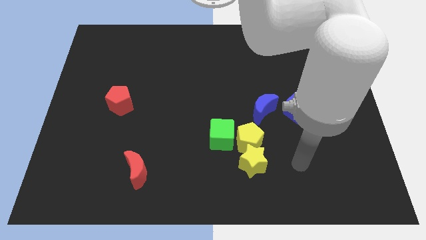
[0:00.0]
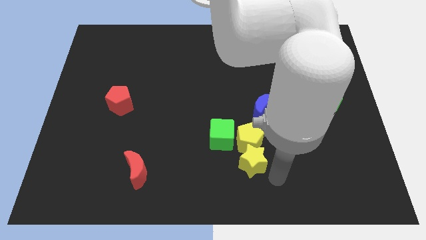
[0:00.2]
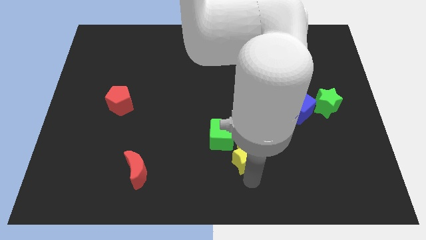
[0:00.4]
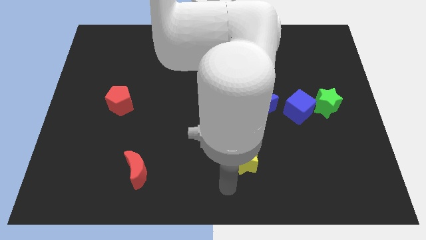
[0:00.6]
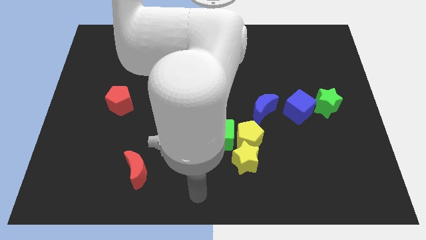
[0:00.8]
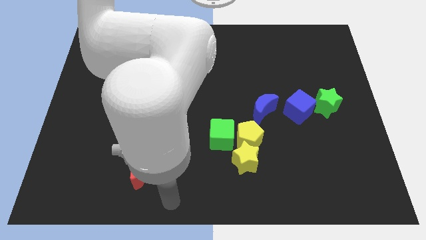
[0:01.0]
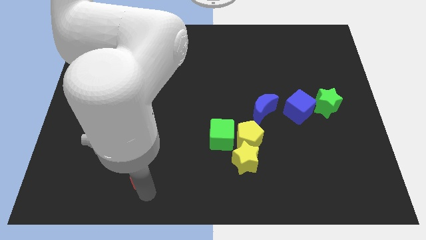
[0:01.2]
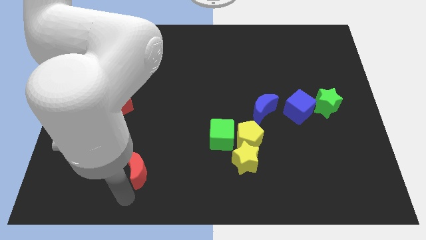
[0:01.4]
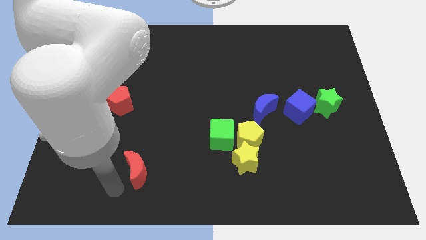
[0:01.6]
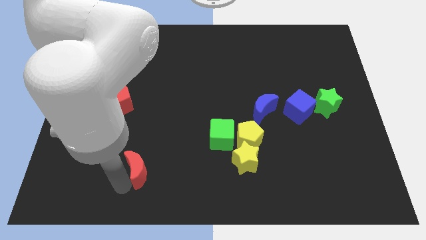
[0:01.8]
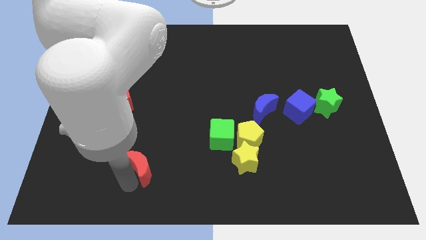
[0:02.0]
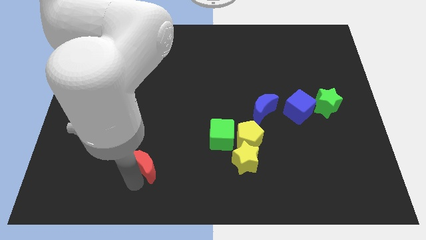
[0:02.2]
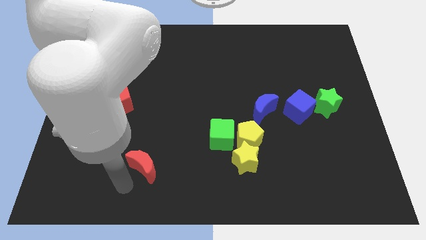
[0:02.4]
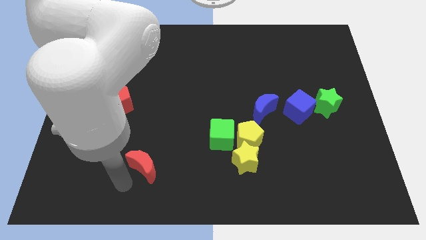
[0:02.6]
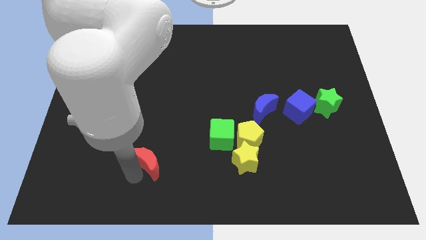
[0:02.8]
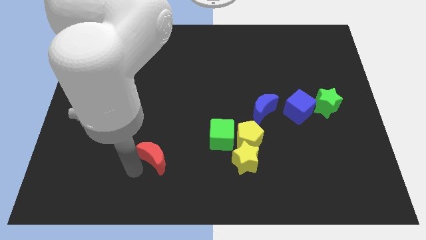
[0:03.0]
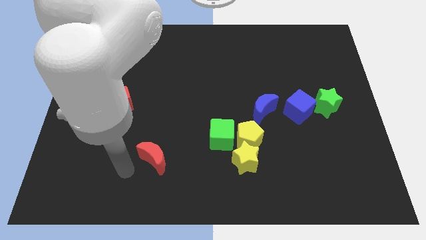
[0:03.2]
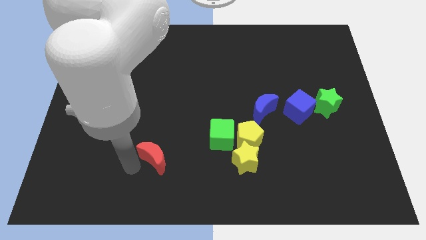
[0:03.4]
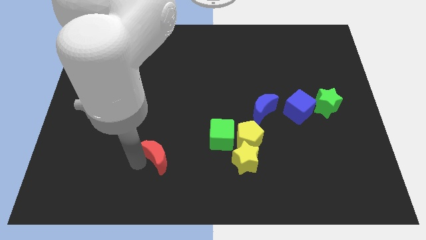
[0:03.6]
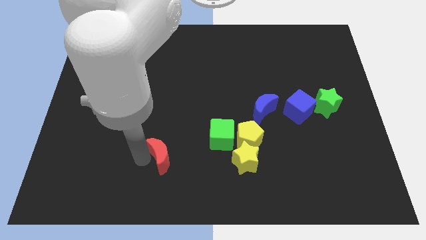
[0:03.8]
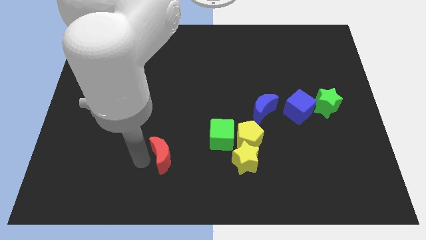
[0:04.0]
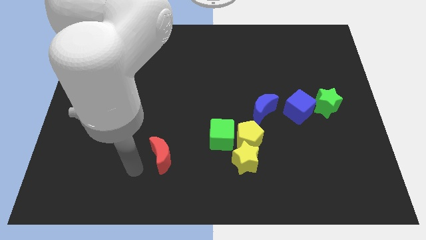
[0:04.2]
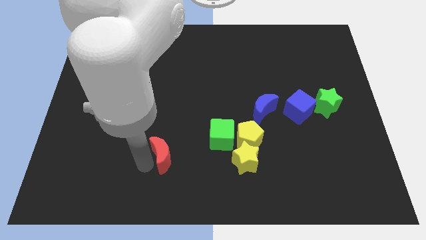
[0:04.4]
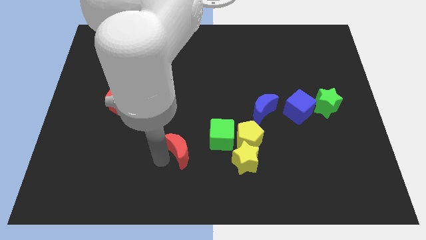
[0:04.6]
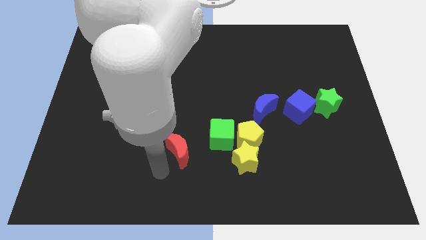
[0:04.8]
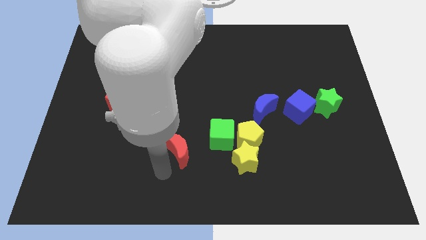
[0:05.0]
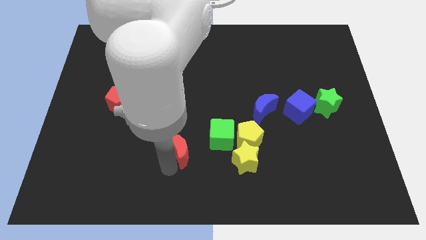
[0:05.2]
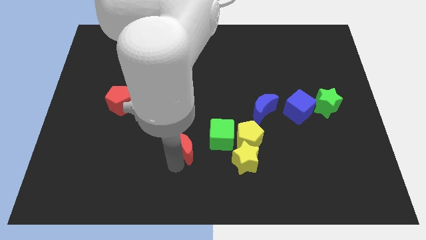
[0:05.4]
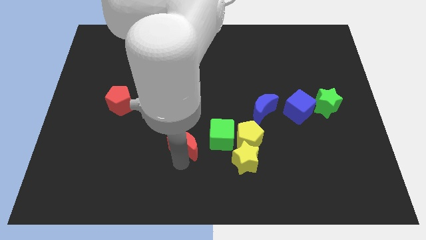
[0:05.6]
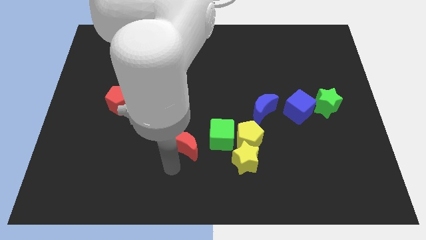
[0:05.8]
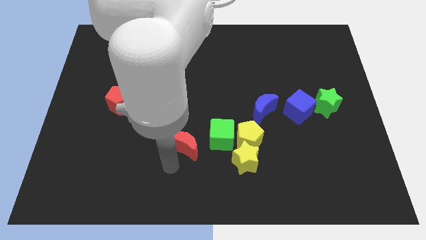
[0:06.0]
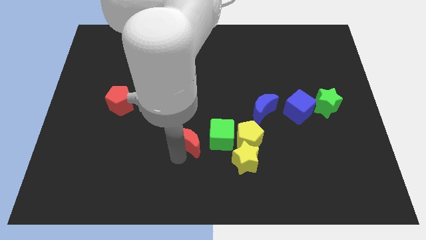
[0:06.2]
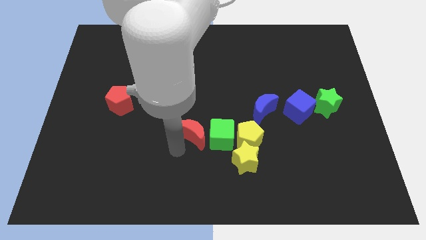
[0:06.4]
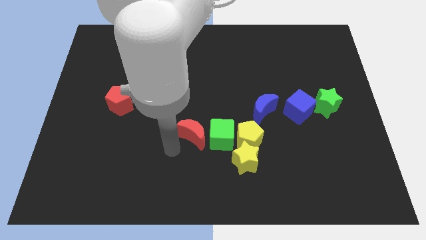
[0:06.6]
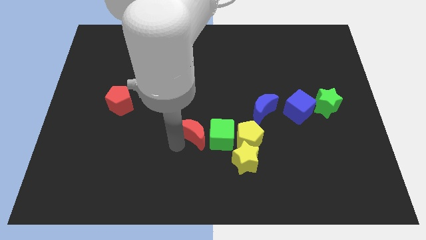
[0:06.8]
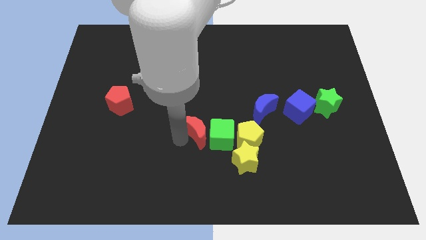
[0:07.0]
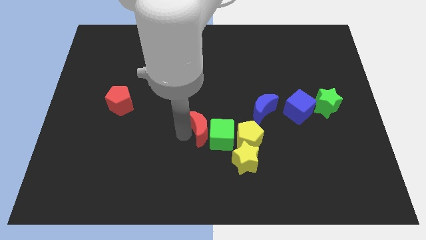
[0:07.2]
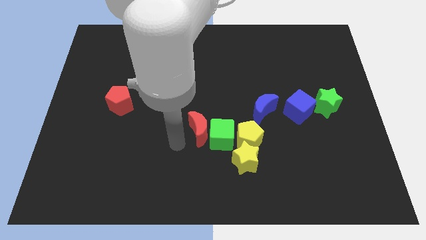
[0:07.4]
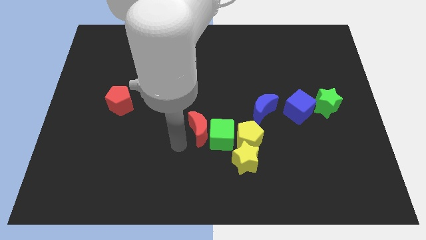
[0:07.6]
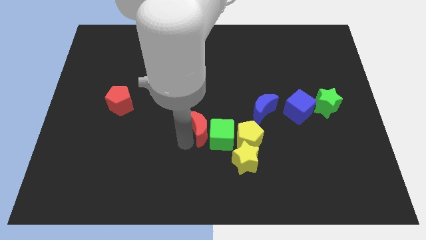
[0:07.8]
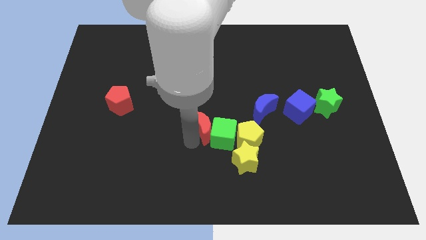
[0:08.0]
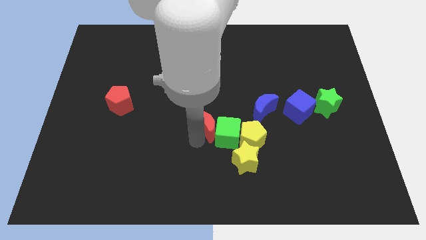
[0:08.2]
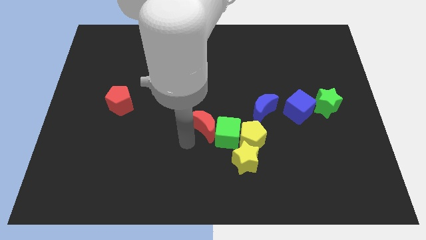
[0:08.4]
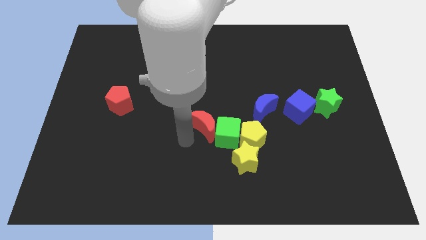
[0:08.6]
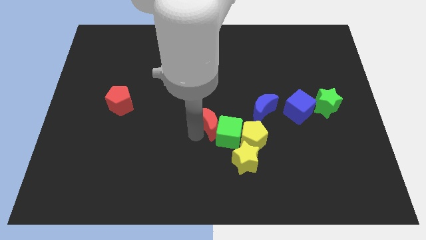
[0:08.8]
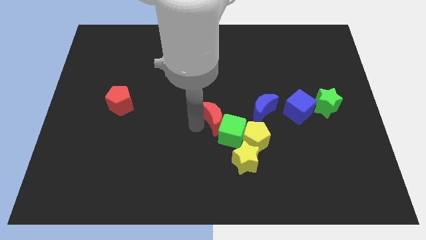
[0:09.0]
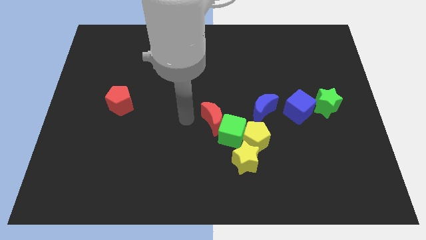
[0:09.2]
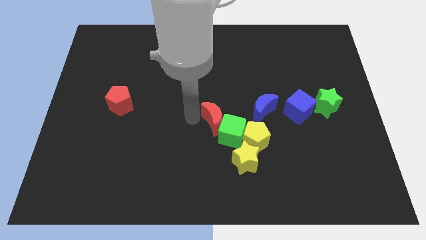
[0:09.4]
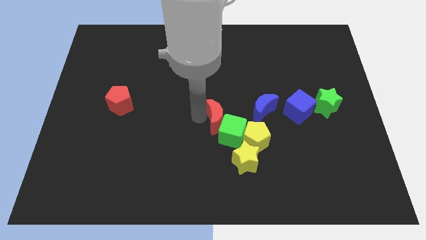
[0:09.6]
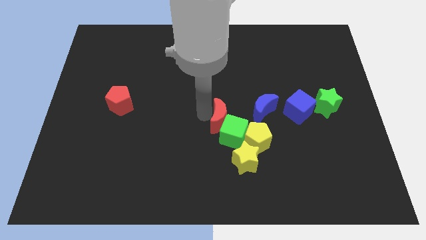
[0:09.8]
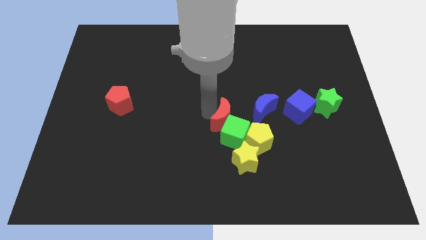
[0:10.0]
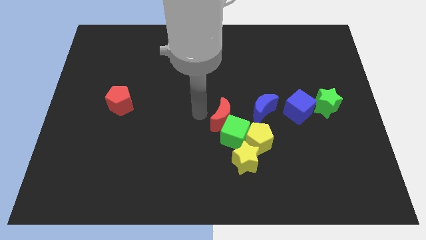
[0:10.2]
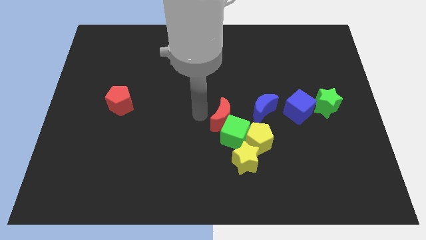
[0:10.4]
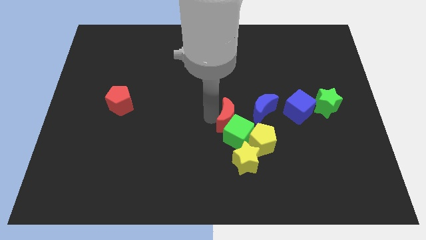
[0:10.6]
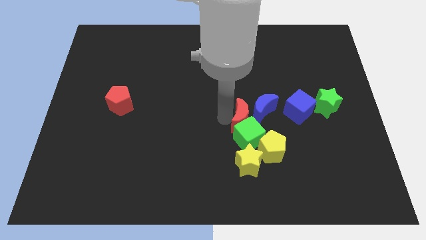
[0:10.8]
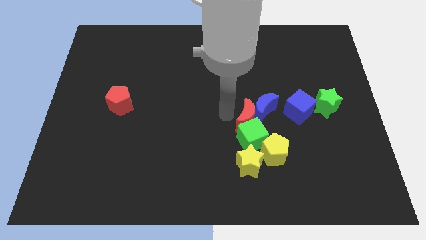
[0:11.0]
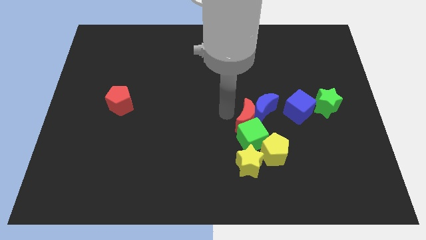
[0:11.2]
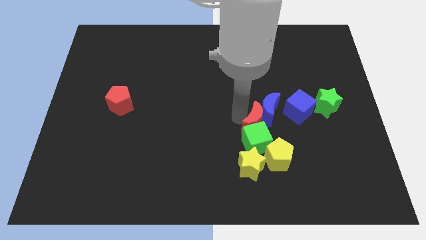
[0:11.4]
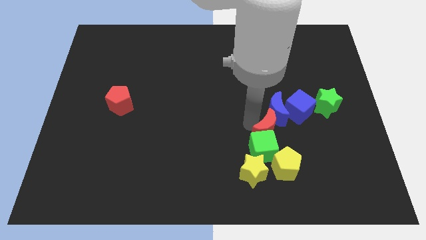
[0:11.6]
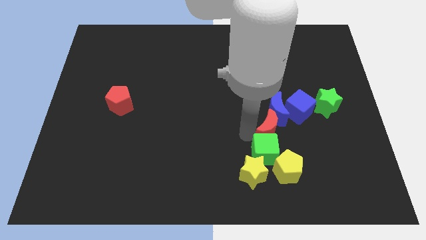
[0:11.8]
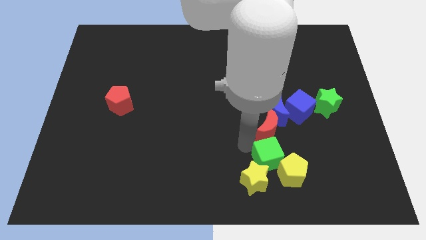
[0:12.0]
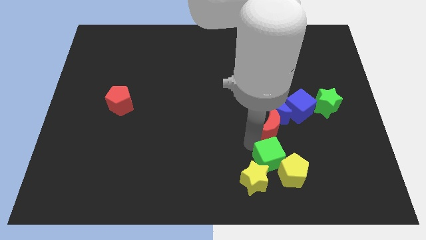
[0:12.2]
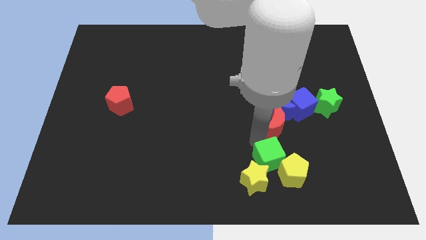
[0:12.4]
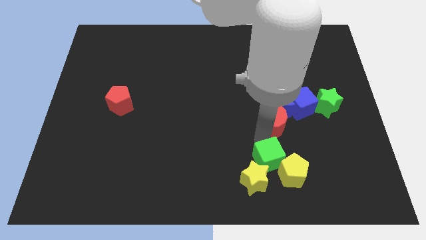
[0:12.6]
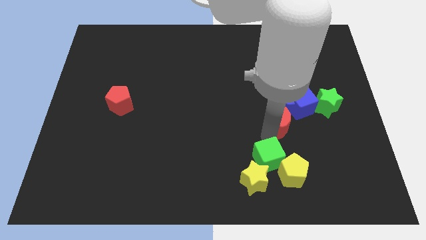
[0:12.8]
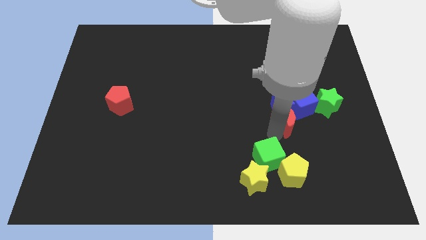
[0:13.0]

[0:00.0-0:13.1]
move the red moon next to the blue cube
